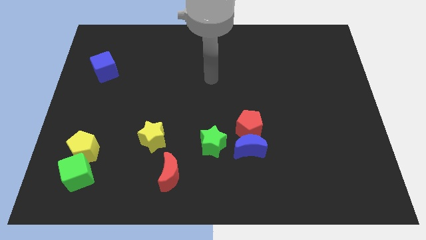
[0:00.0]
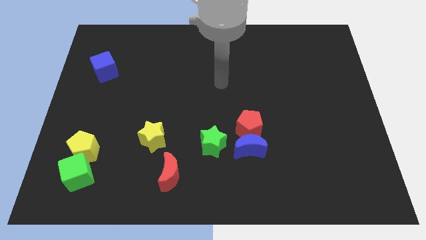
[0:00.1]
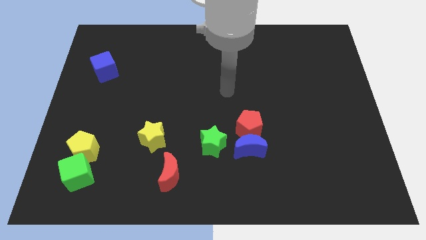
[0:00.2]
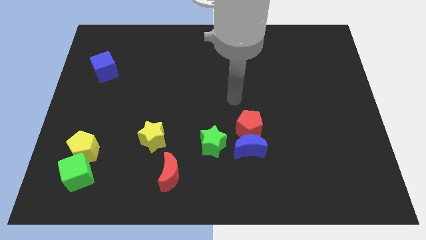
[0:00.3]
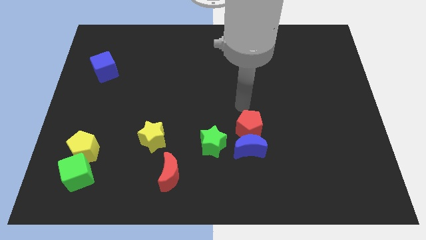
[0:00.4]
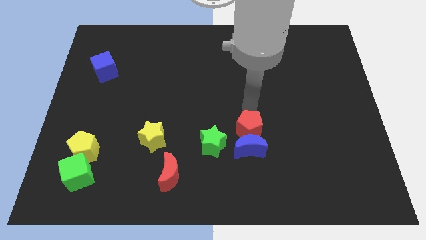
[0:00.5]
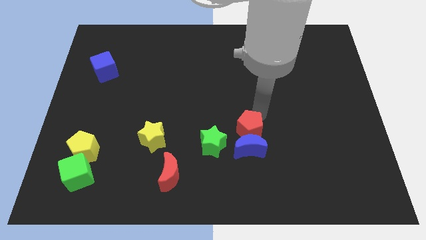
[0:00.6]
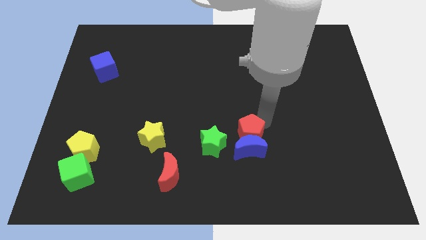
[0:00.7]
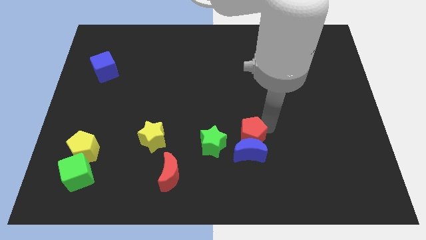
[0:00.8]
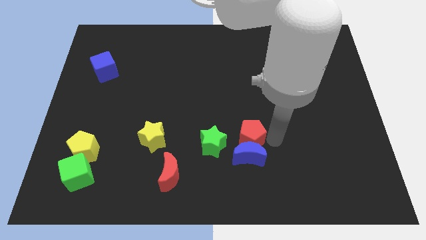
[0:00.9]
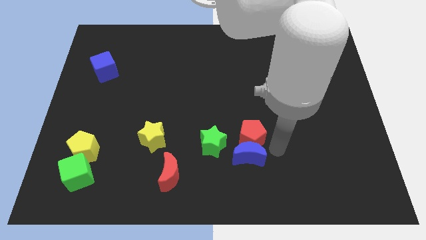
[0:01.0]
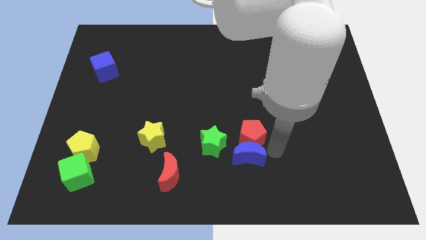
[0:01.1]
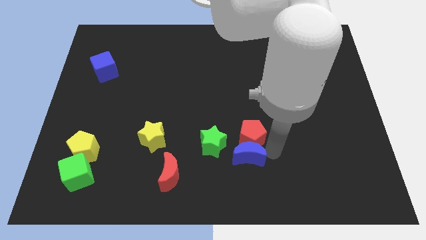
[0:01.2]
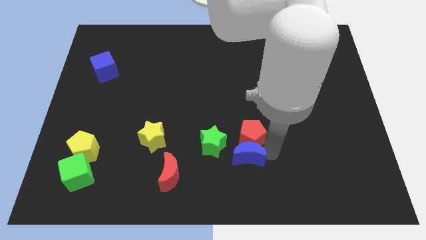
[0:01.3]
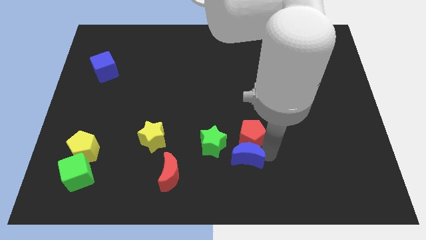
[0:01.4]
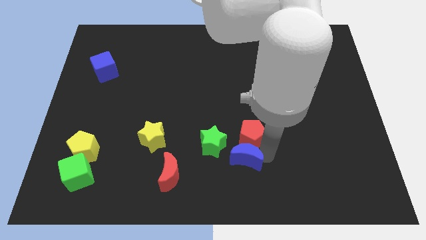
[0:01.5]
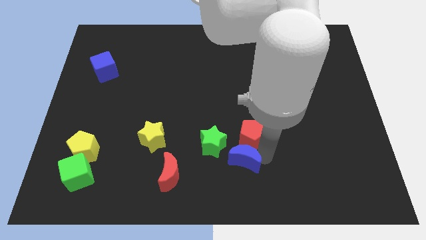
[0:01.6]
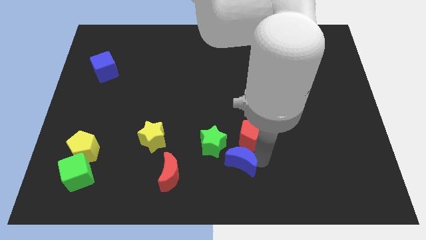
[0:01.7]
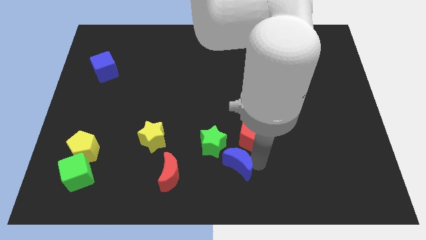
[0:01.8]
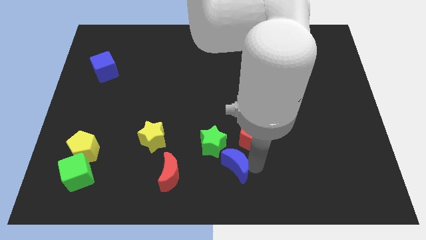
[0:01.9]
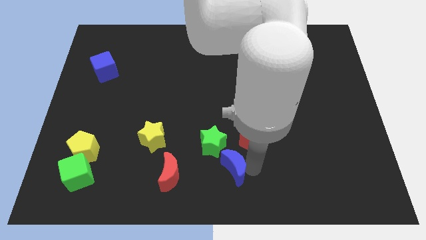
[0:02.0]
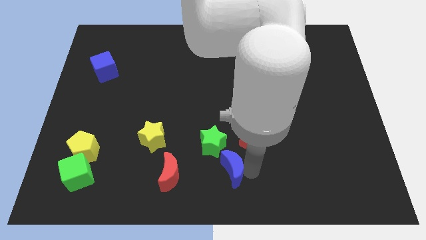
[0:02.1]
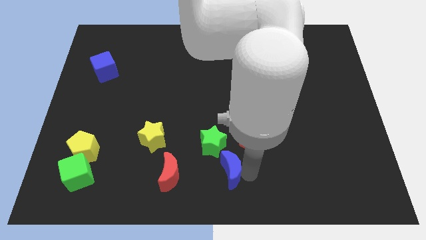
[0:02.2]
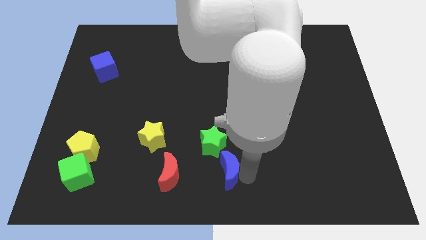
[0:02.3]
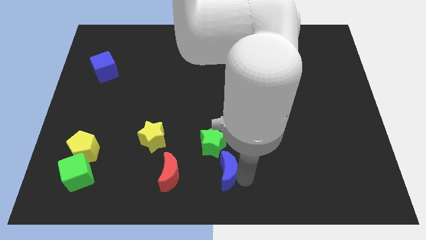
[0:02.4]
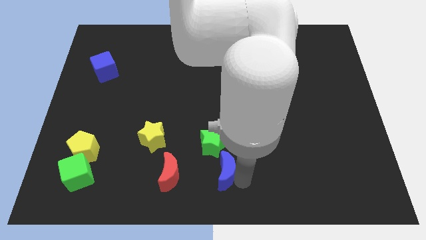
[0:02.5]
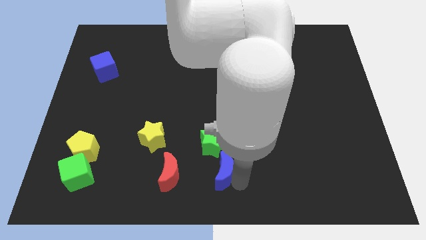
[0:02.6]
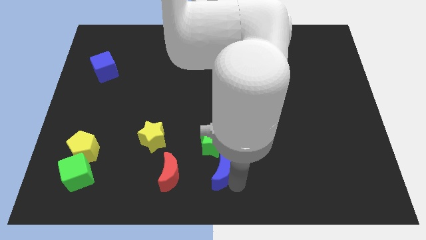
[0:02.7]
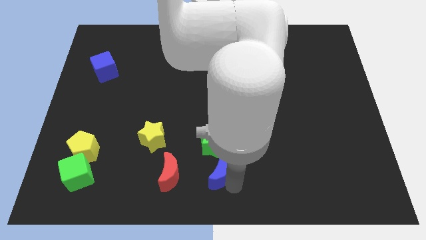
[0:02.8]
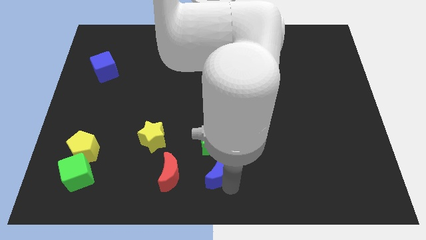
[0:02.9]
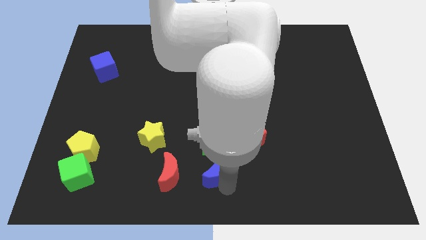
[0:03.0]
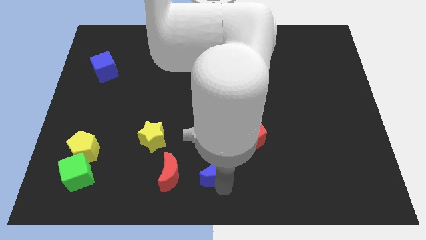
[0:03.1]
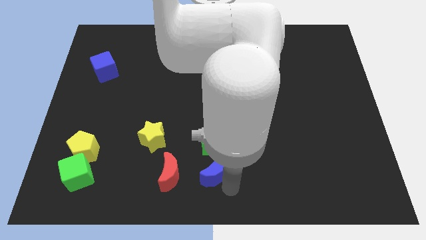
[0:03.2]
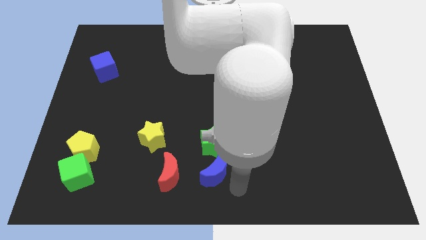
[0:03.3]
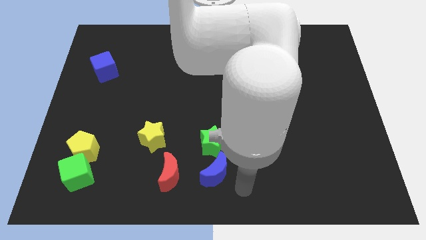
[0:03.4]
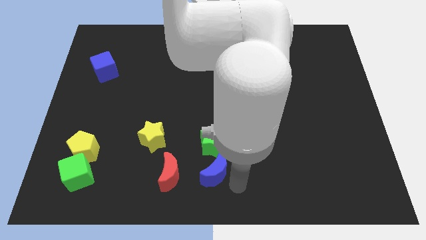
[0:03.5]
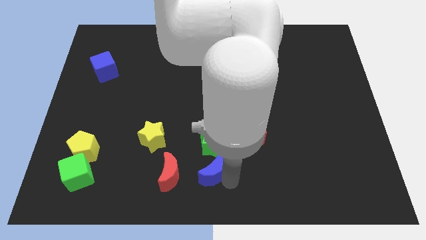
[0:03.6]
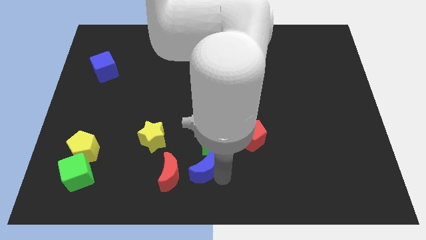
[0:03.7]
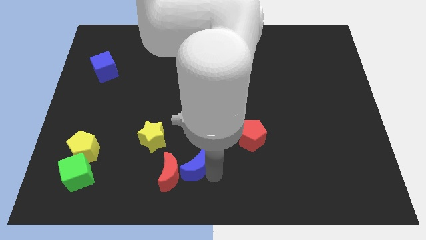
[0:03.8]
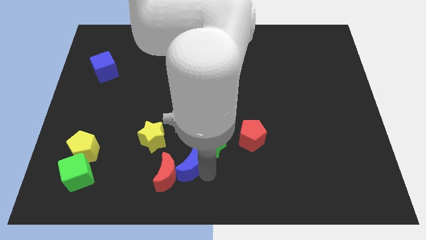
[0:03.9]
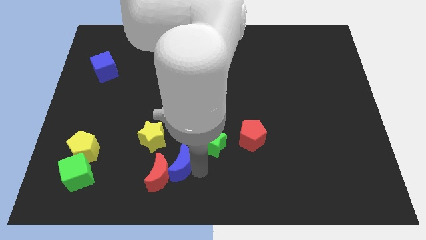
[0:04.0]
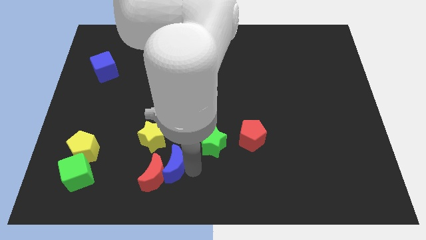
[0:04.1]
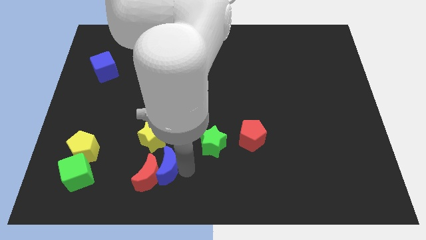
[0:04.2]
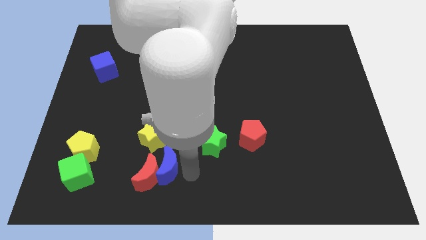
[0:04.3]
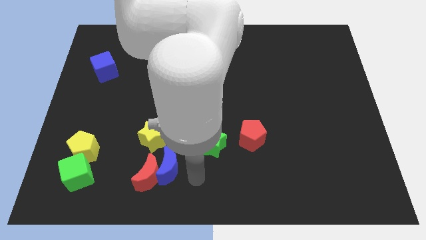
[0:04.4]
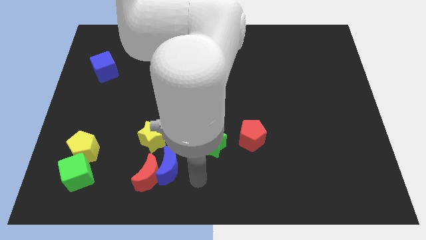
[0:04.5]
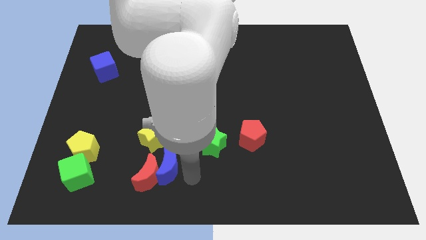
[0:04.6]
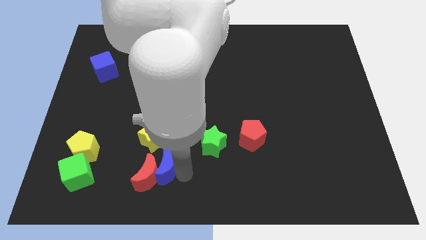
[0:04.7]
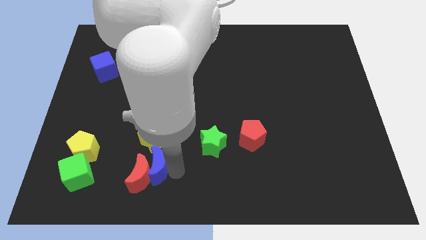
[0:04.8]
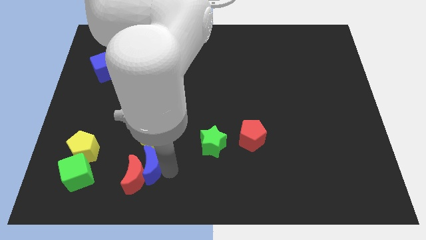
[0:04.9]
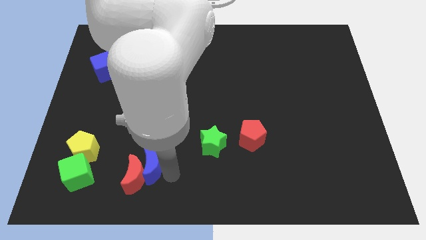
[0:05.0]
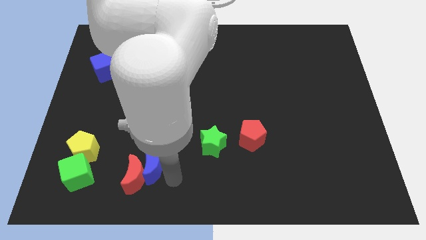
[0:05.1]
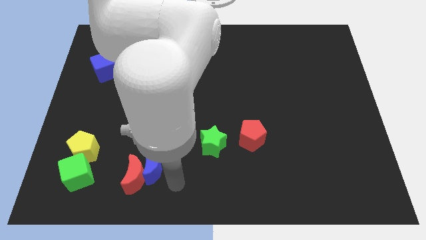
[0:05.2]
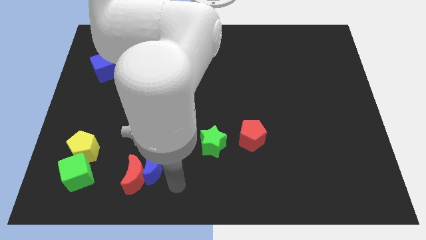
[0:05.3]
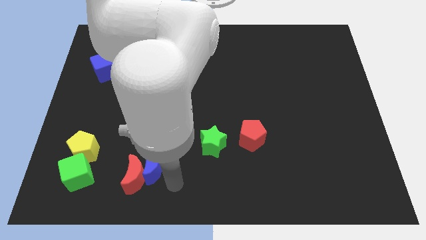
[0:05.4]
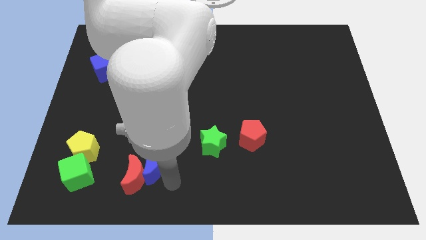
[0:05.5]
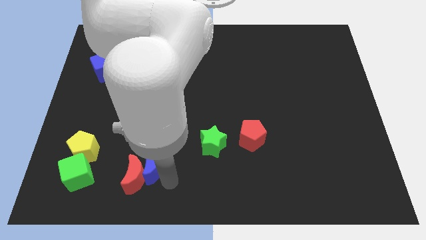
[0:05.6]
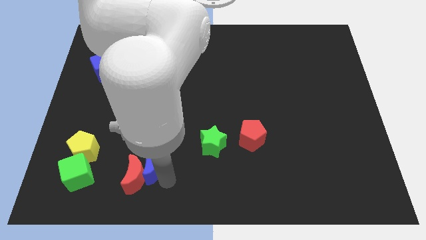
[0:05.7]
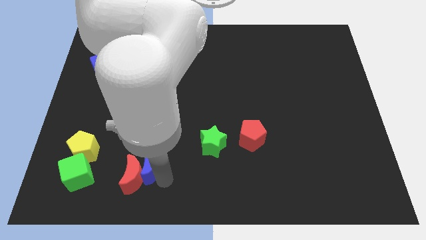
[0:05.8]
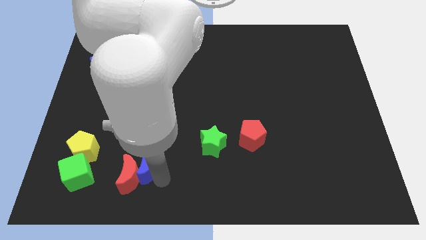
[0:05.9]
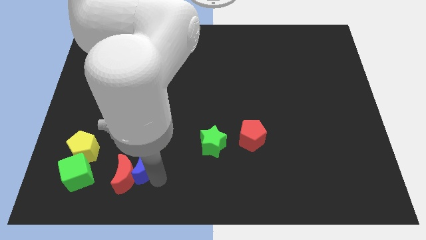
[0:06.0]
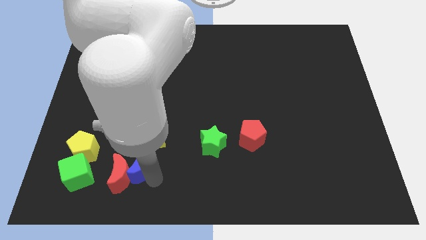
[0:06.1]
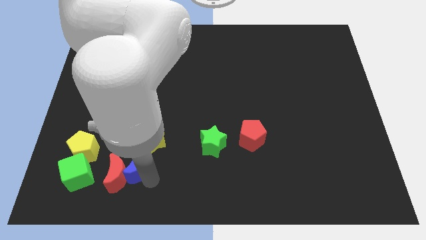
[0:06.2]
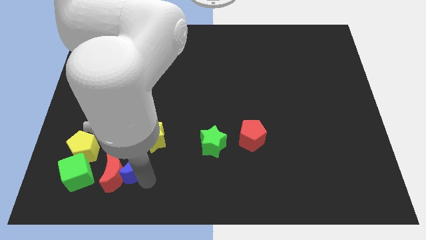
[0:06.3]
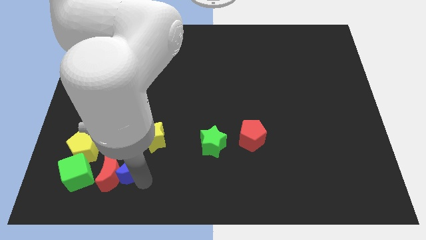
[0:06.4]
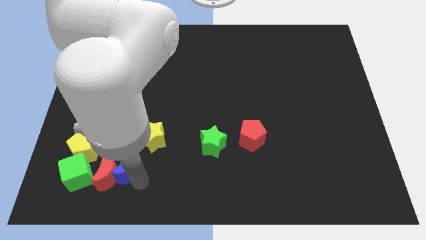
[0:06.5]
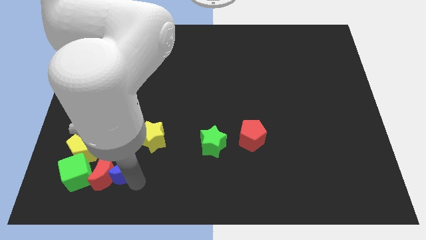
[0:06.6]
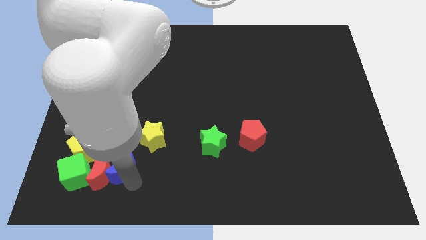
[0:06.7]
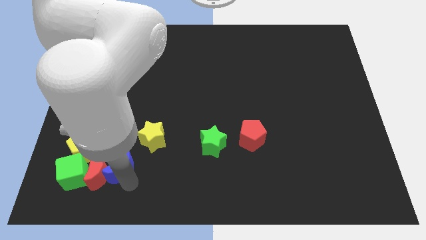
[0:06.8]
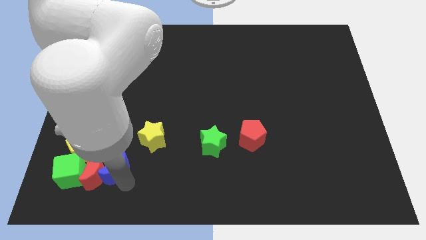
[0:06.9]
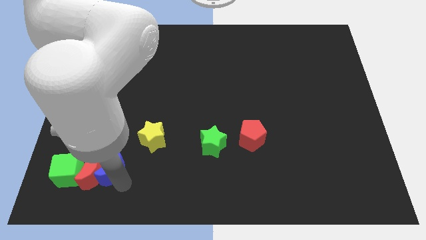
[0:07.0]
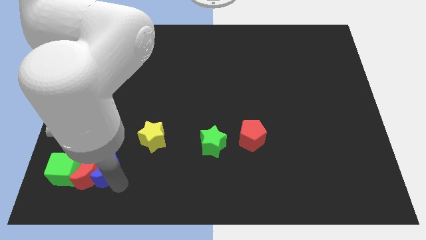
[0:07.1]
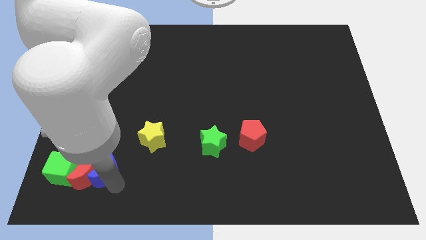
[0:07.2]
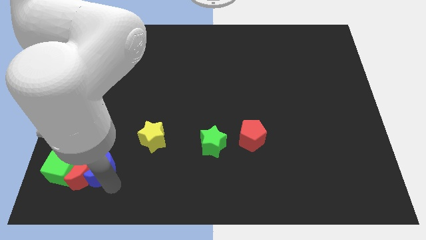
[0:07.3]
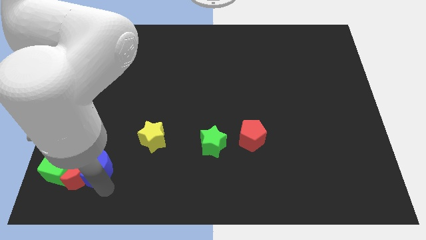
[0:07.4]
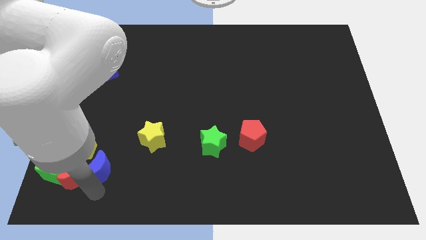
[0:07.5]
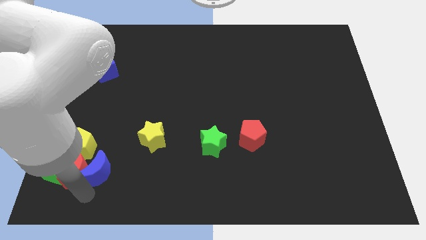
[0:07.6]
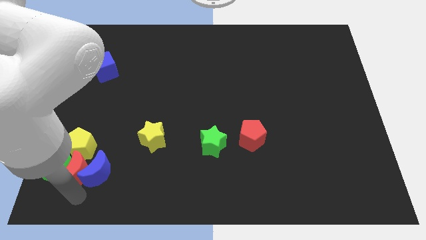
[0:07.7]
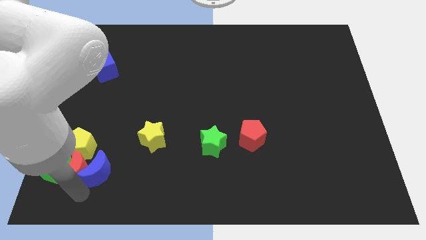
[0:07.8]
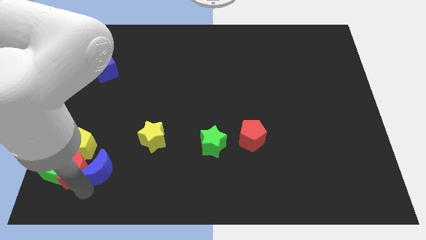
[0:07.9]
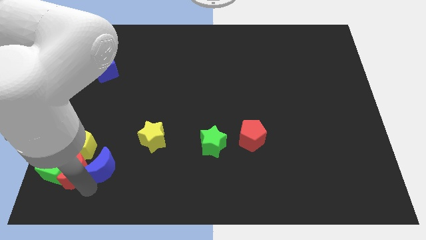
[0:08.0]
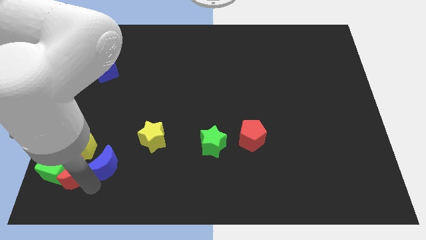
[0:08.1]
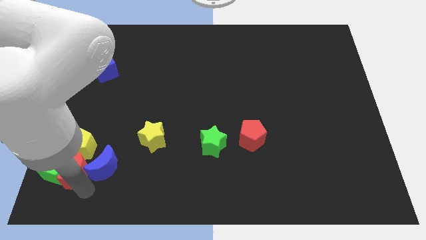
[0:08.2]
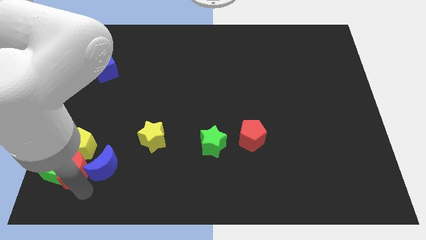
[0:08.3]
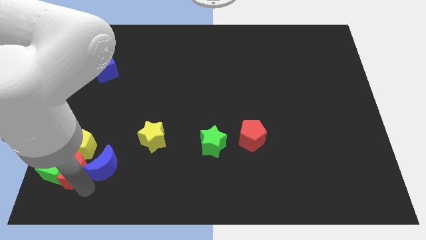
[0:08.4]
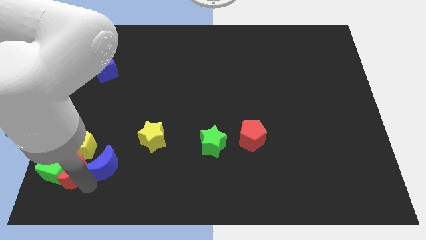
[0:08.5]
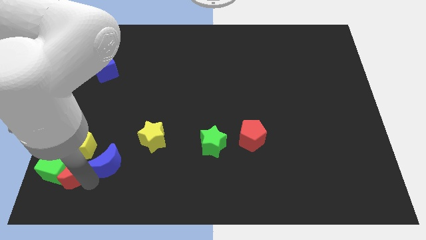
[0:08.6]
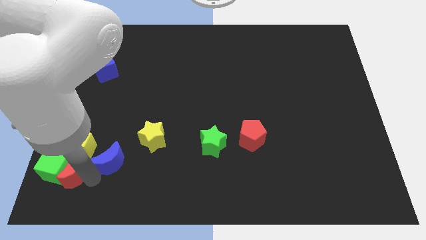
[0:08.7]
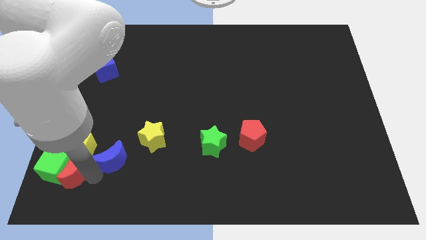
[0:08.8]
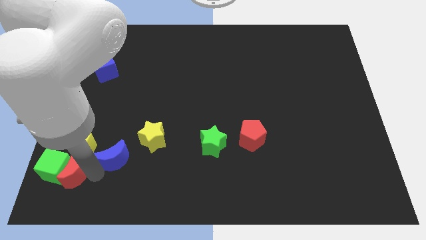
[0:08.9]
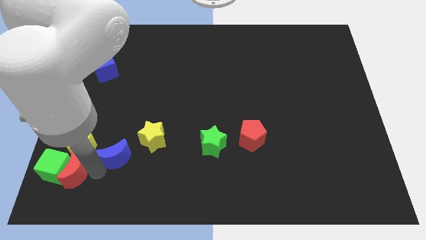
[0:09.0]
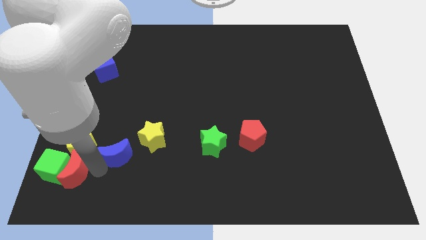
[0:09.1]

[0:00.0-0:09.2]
move the blue moon just left of the yellow star
